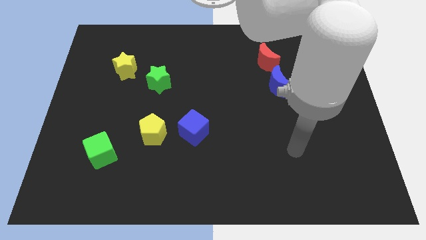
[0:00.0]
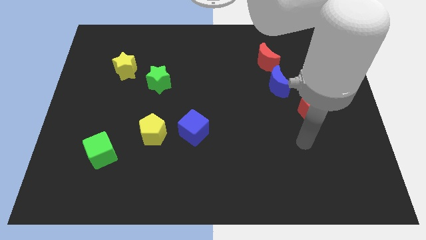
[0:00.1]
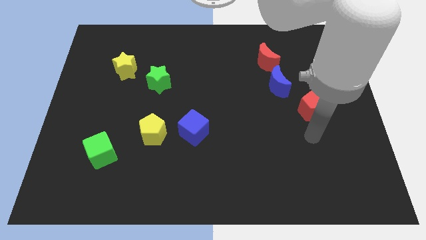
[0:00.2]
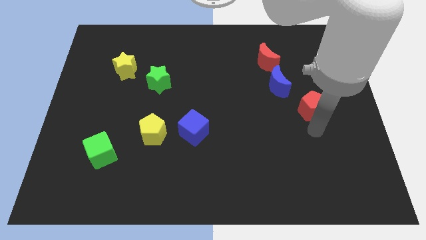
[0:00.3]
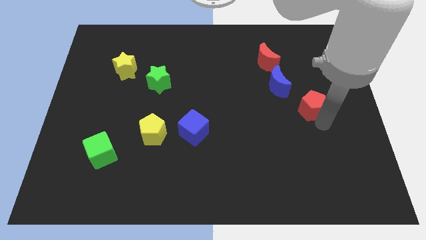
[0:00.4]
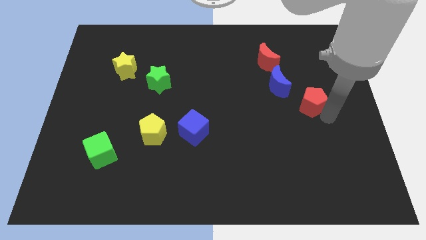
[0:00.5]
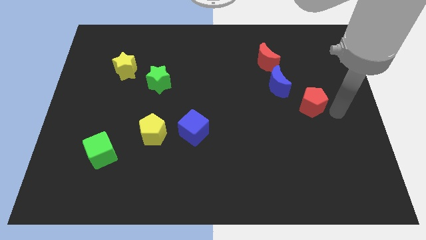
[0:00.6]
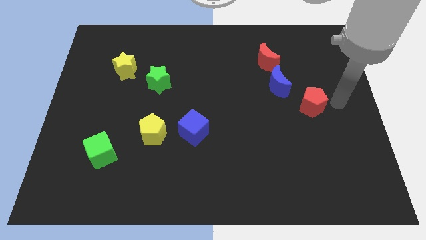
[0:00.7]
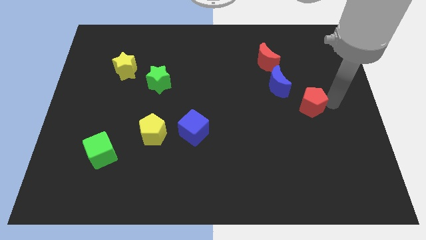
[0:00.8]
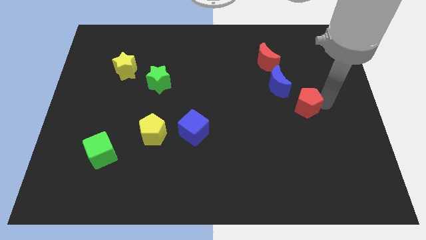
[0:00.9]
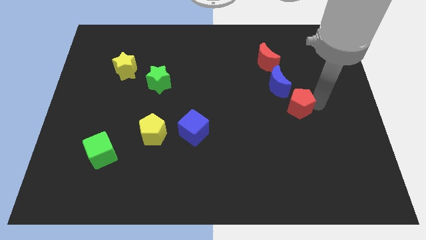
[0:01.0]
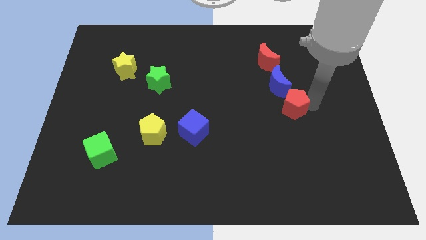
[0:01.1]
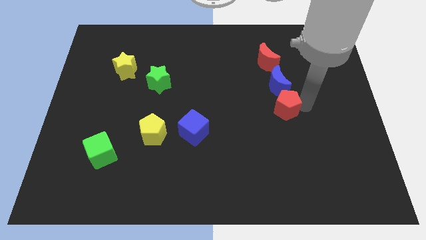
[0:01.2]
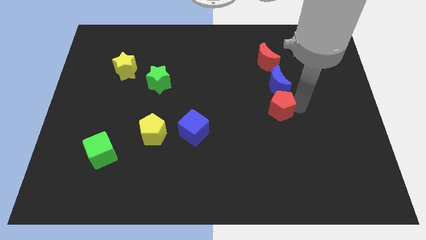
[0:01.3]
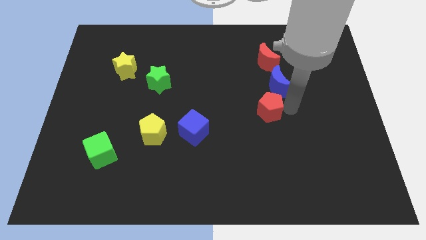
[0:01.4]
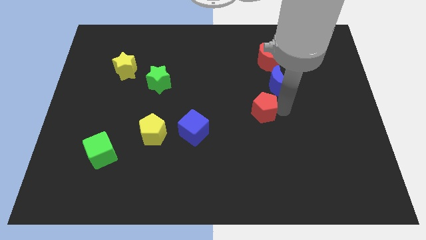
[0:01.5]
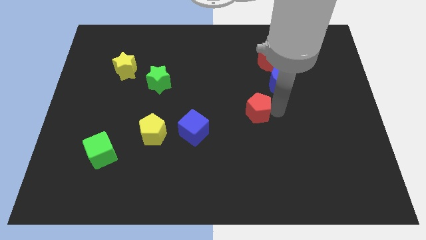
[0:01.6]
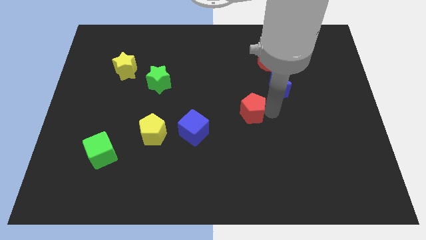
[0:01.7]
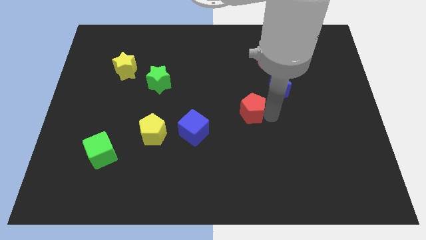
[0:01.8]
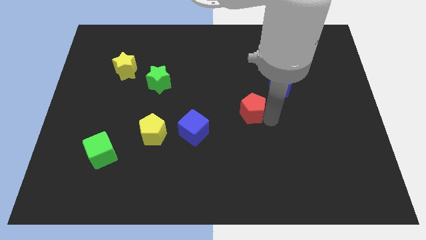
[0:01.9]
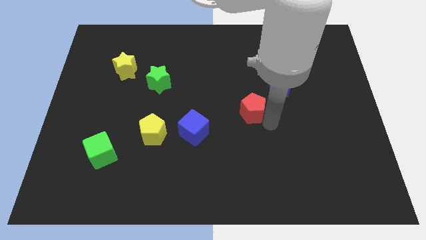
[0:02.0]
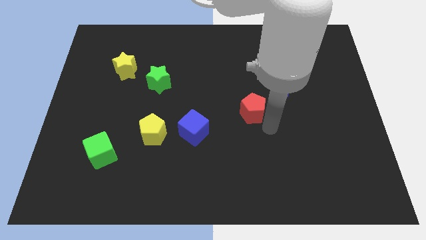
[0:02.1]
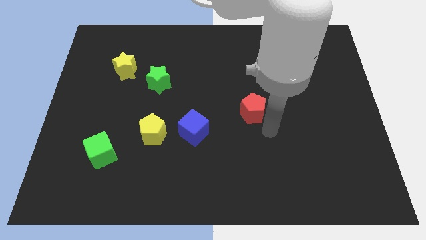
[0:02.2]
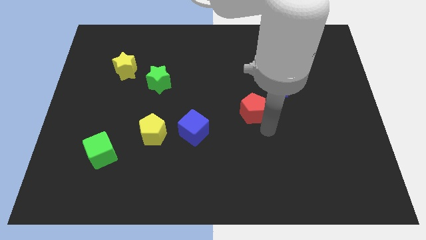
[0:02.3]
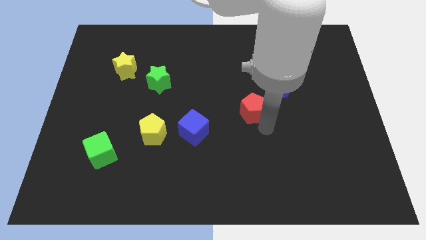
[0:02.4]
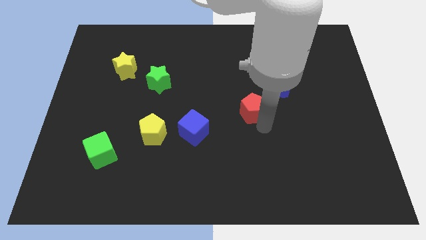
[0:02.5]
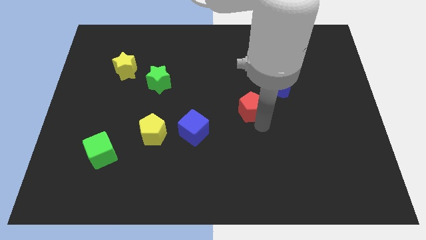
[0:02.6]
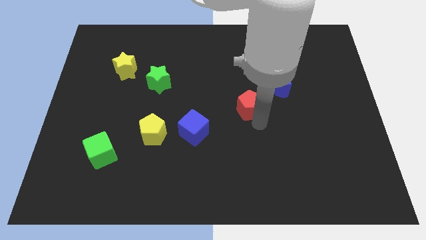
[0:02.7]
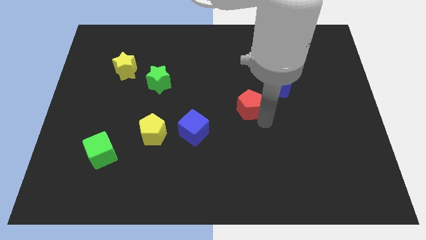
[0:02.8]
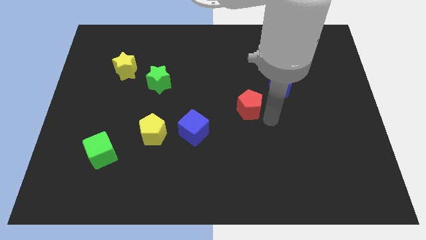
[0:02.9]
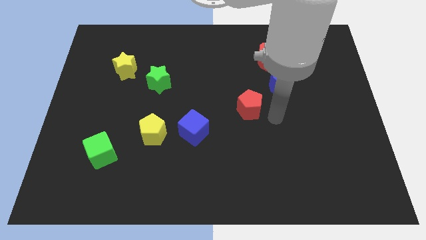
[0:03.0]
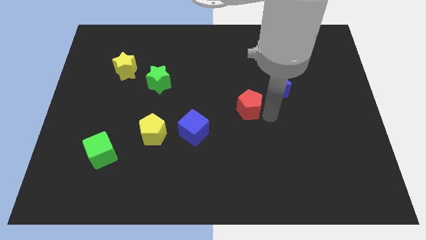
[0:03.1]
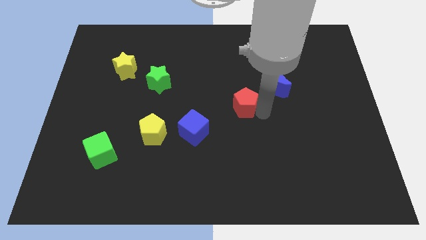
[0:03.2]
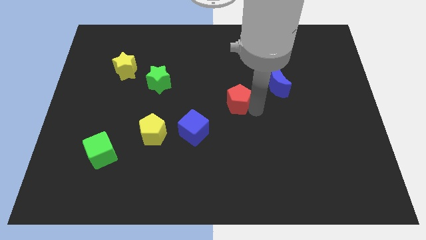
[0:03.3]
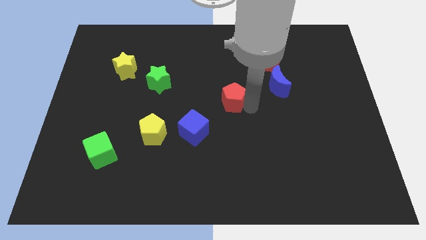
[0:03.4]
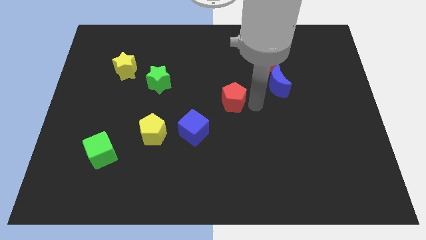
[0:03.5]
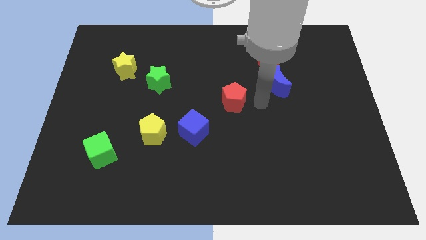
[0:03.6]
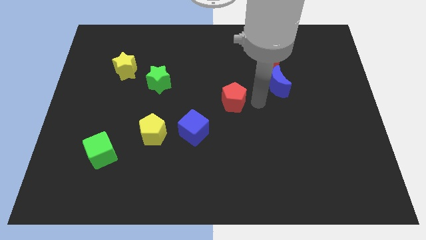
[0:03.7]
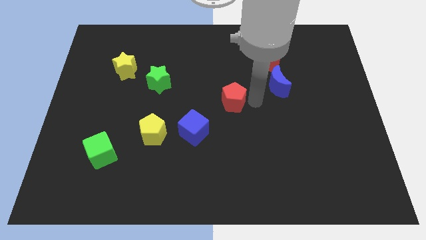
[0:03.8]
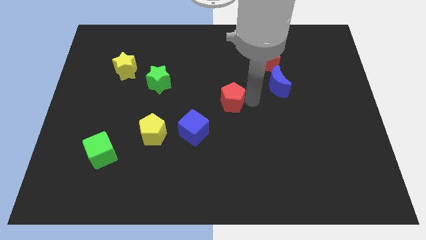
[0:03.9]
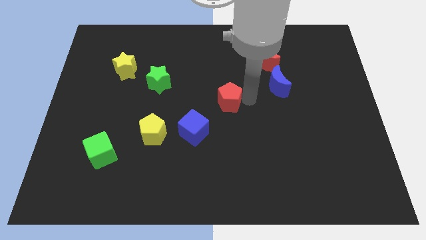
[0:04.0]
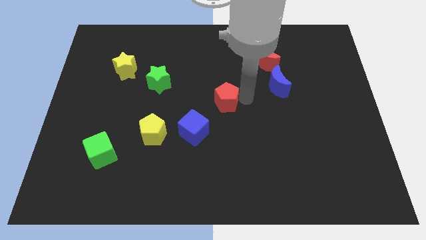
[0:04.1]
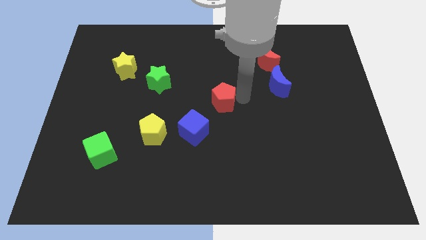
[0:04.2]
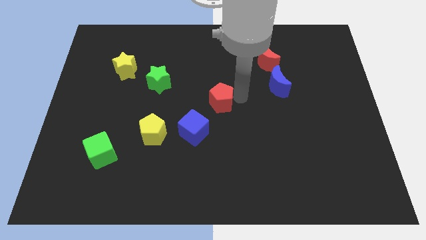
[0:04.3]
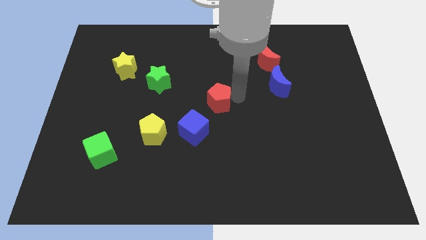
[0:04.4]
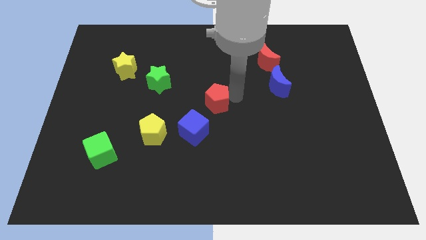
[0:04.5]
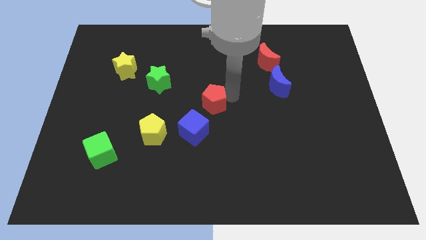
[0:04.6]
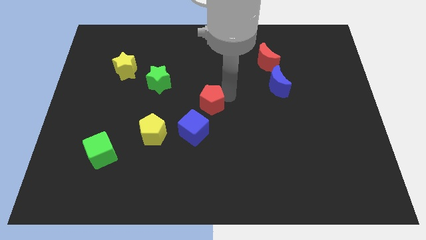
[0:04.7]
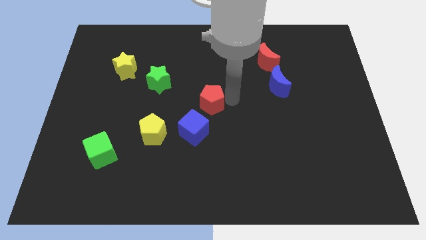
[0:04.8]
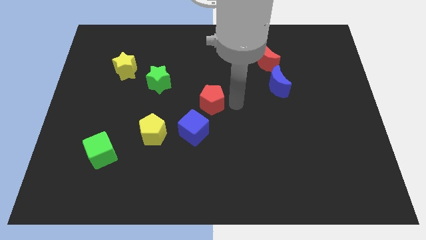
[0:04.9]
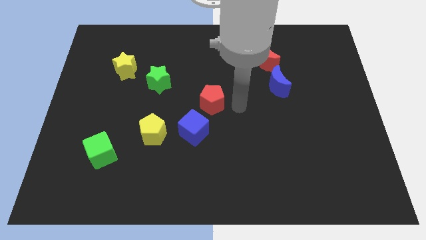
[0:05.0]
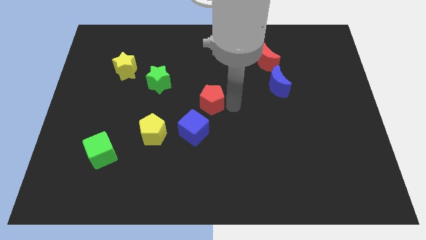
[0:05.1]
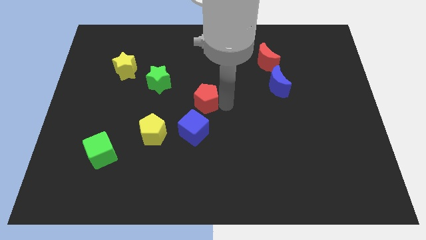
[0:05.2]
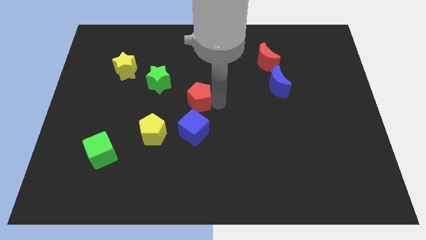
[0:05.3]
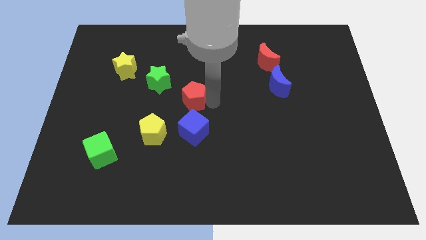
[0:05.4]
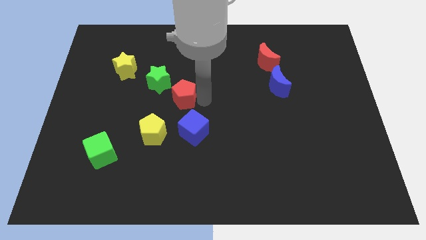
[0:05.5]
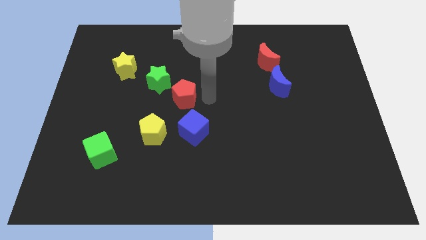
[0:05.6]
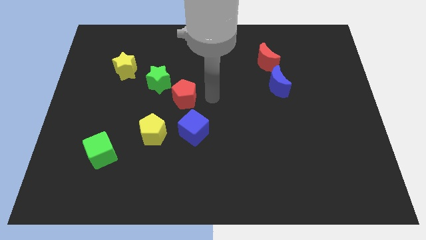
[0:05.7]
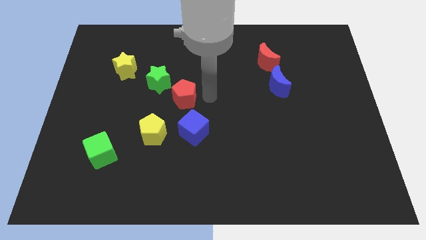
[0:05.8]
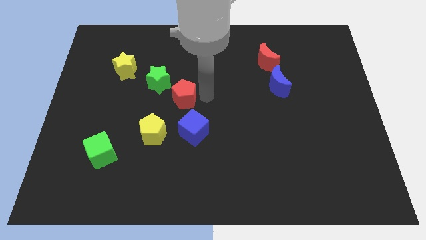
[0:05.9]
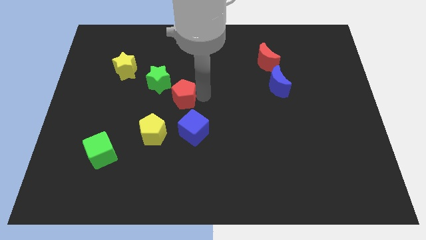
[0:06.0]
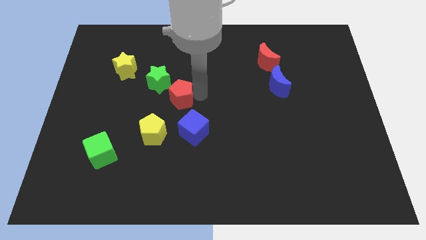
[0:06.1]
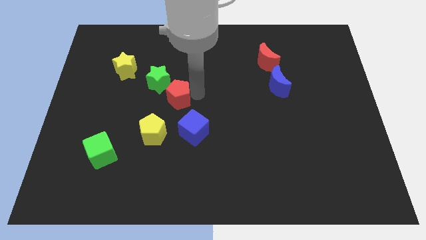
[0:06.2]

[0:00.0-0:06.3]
put the red pentagon above the yellow pentagon

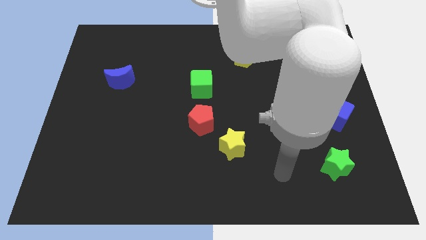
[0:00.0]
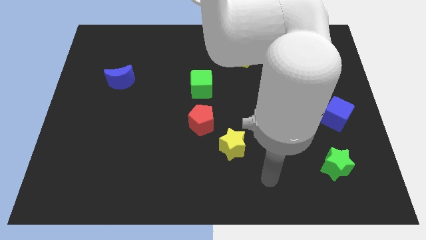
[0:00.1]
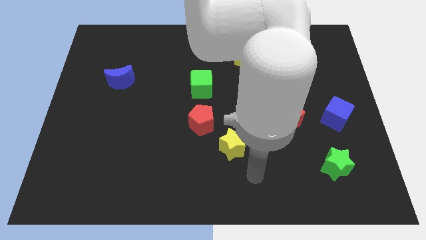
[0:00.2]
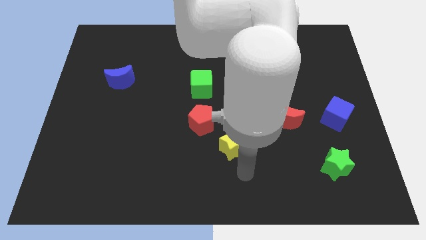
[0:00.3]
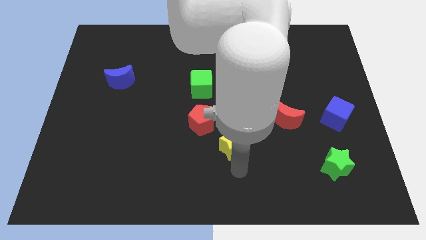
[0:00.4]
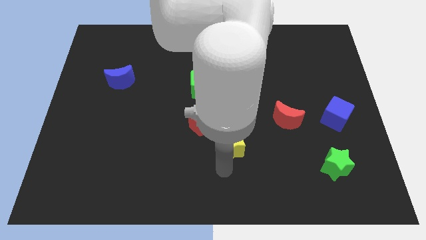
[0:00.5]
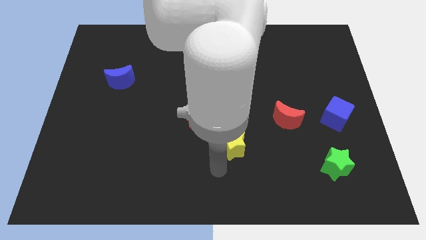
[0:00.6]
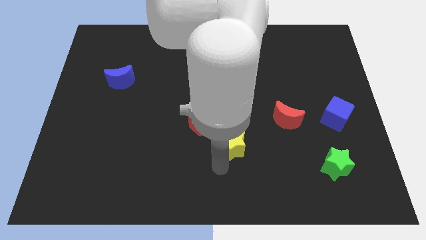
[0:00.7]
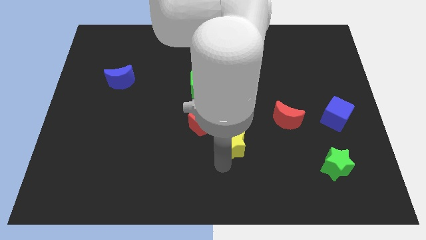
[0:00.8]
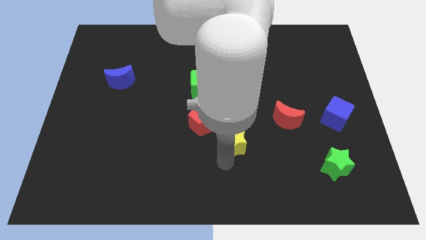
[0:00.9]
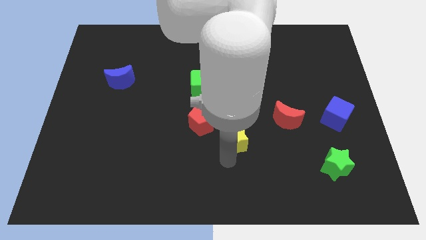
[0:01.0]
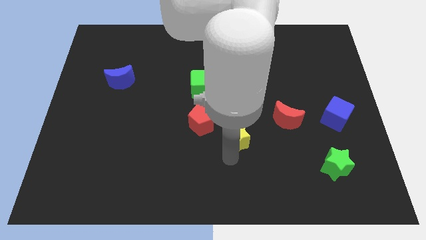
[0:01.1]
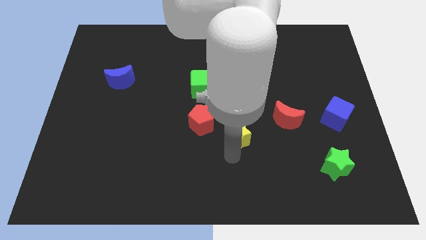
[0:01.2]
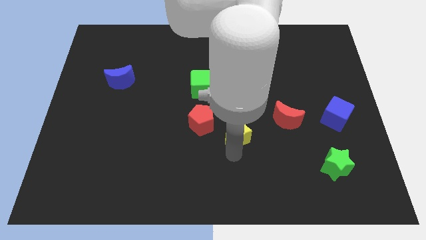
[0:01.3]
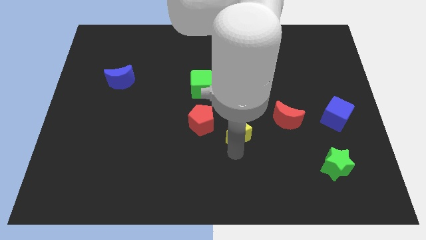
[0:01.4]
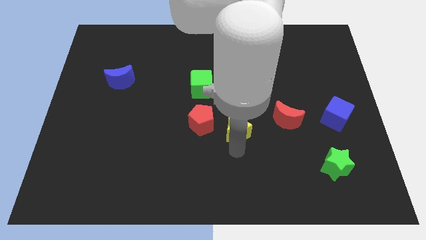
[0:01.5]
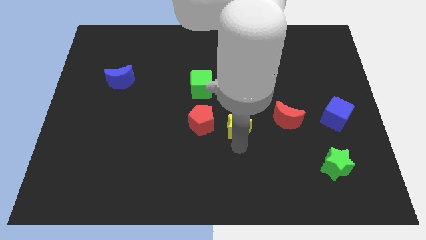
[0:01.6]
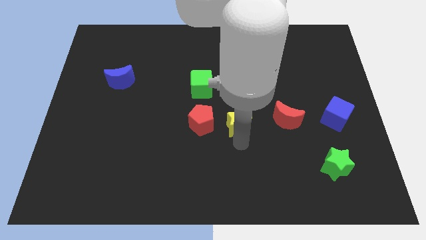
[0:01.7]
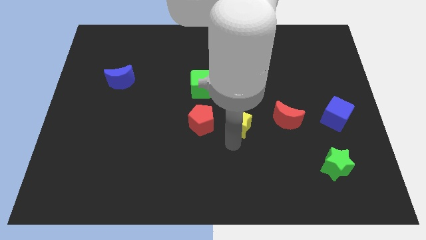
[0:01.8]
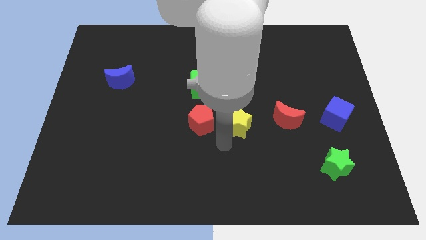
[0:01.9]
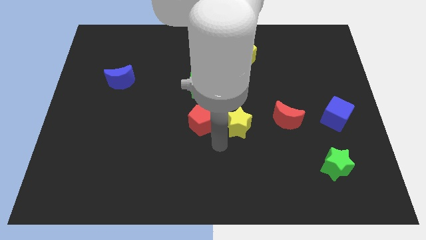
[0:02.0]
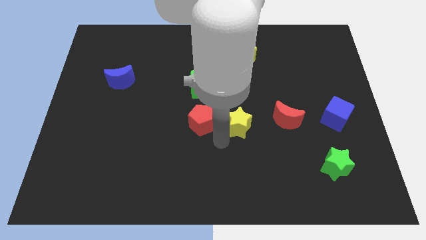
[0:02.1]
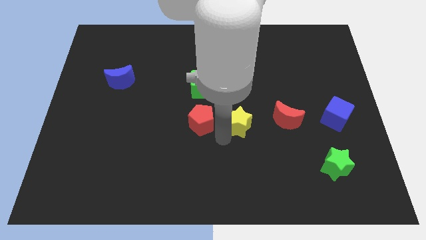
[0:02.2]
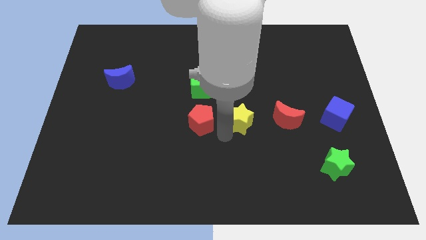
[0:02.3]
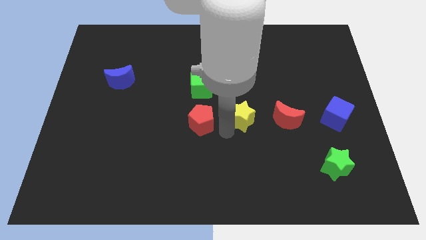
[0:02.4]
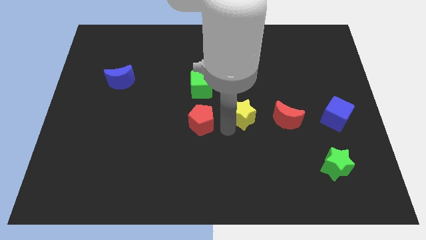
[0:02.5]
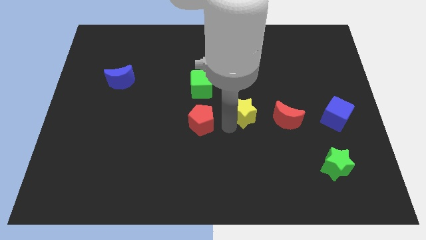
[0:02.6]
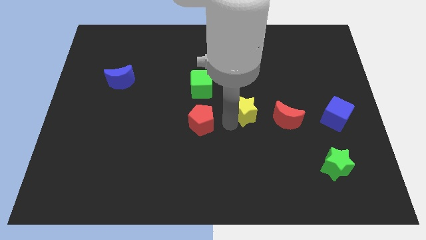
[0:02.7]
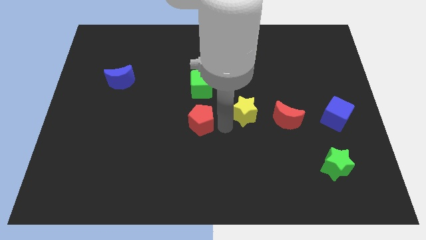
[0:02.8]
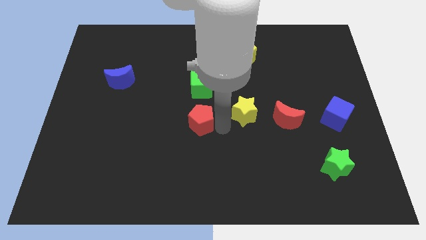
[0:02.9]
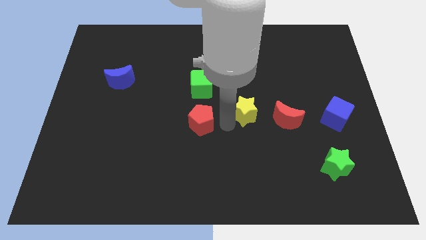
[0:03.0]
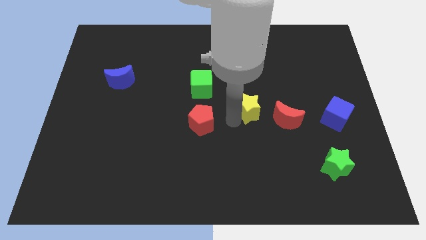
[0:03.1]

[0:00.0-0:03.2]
move the yellow star diagonally up and to the left of the red moon
